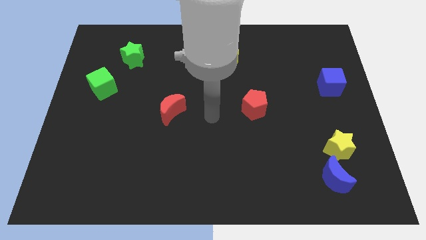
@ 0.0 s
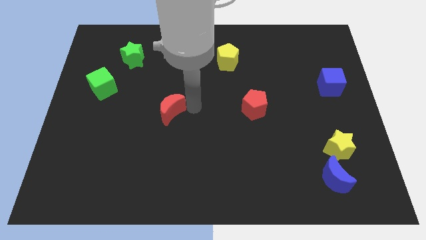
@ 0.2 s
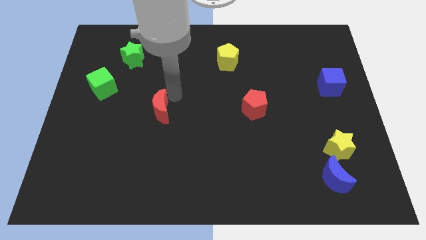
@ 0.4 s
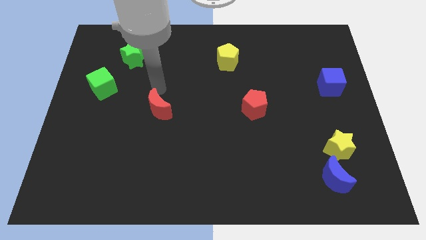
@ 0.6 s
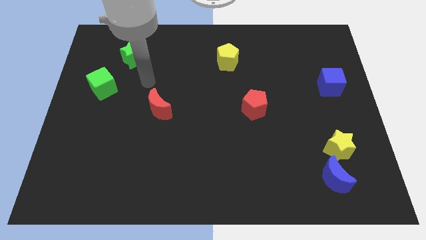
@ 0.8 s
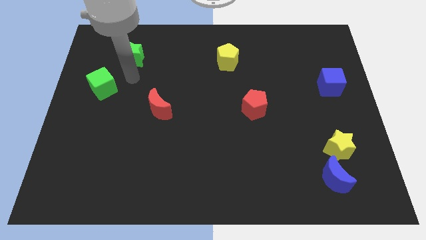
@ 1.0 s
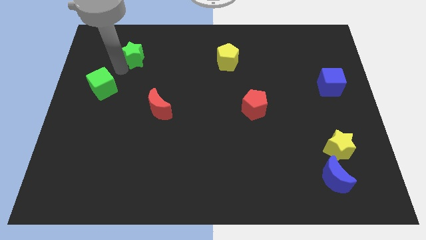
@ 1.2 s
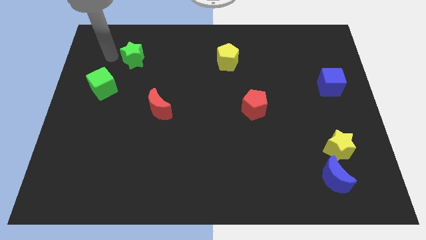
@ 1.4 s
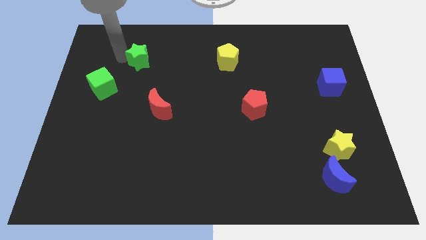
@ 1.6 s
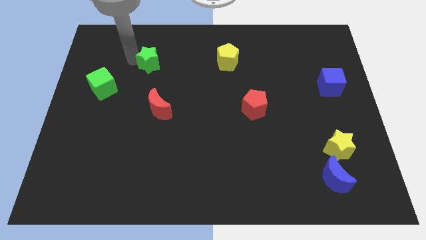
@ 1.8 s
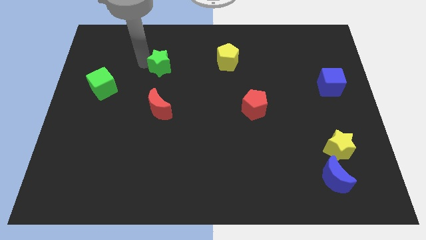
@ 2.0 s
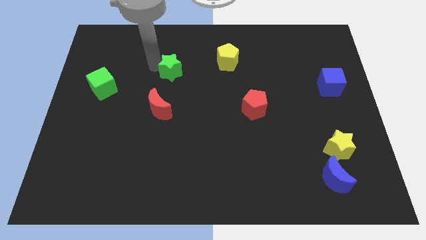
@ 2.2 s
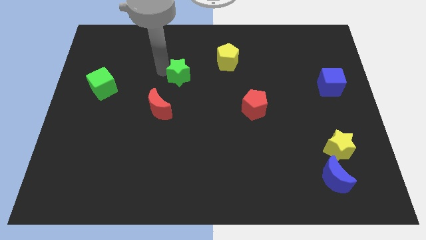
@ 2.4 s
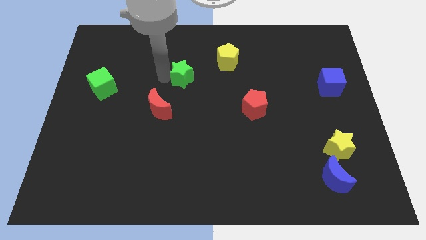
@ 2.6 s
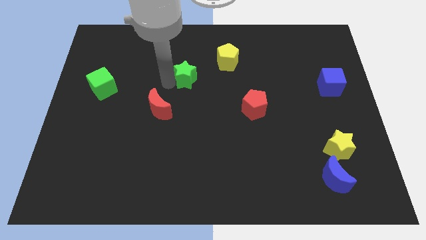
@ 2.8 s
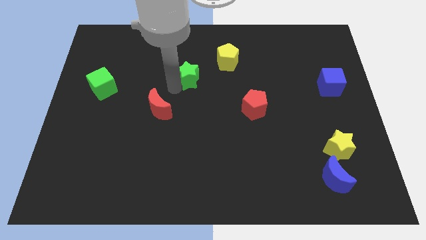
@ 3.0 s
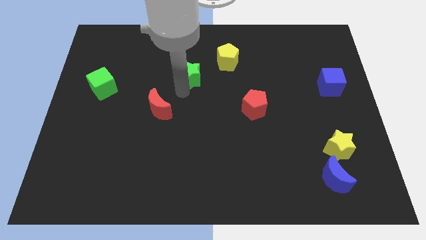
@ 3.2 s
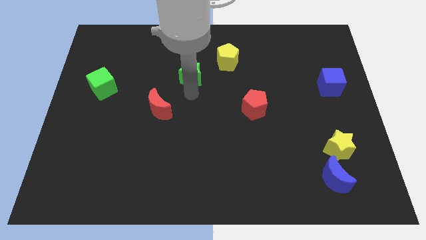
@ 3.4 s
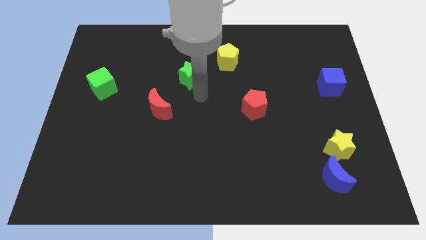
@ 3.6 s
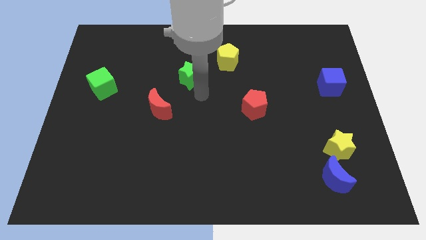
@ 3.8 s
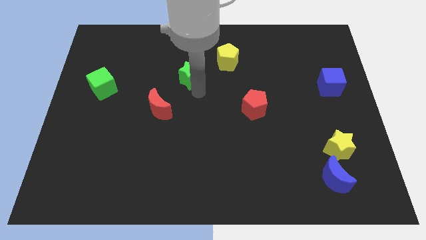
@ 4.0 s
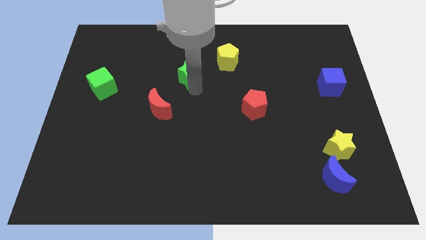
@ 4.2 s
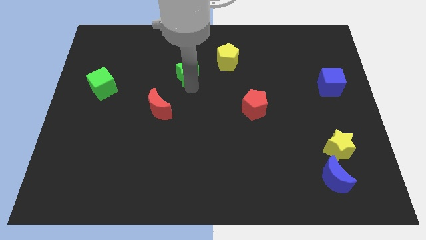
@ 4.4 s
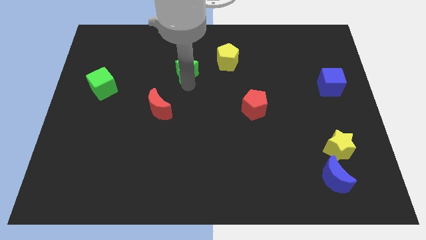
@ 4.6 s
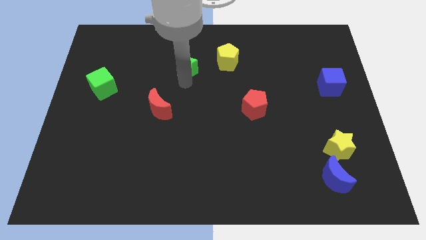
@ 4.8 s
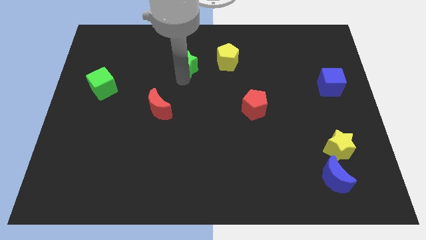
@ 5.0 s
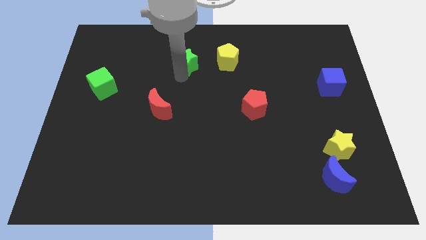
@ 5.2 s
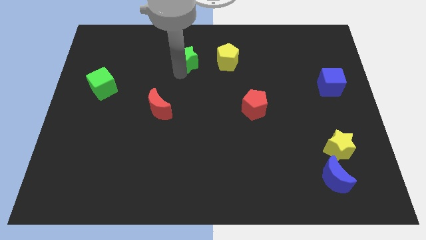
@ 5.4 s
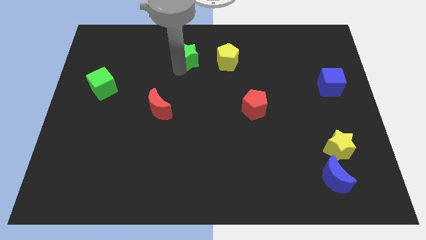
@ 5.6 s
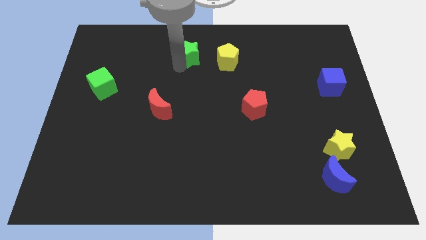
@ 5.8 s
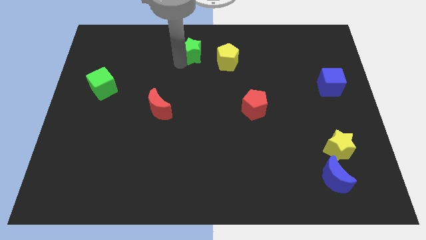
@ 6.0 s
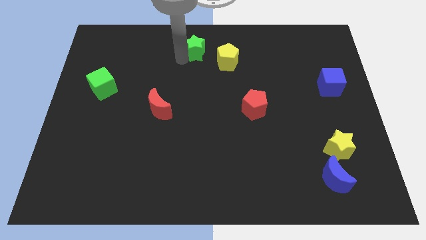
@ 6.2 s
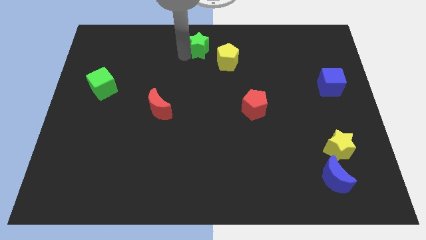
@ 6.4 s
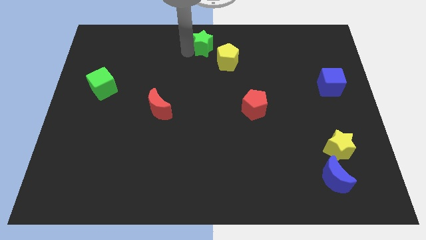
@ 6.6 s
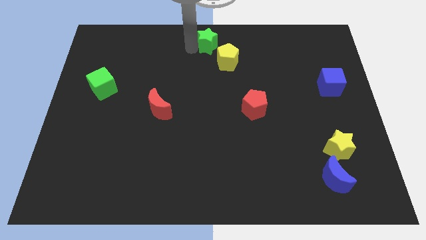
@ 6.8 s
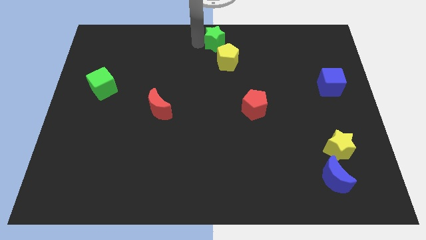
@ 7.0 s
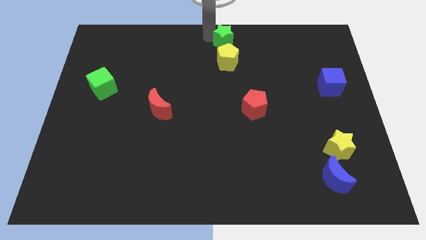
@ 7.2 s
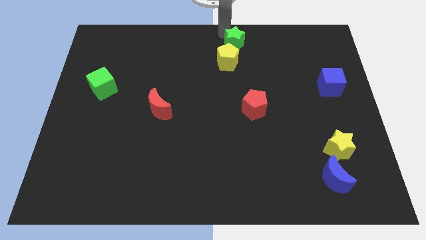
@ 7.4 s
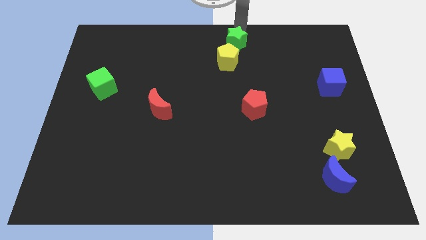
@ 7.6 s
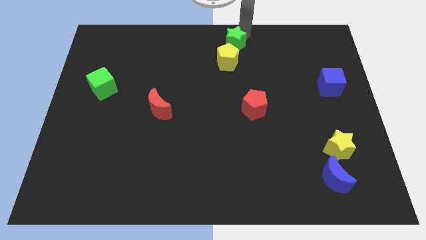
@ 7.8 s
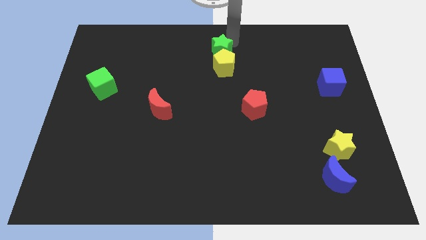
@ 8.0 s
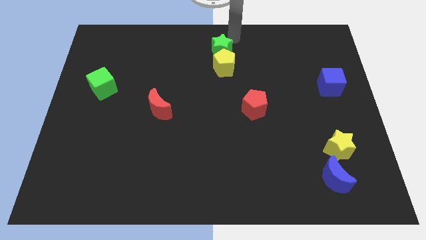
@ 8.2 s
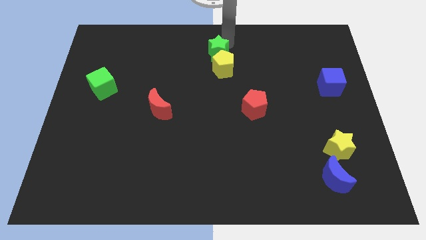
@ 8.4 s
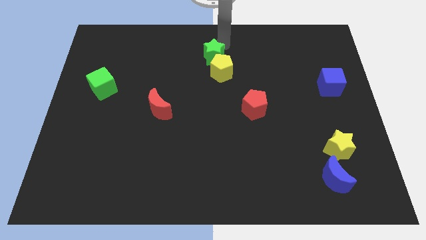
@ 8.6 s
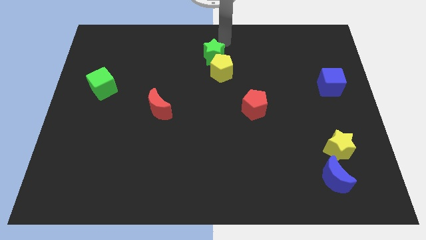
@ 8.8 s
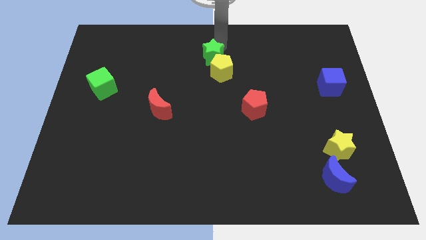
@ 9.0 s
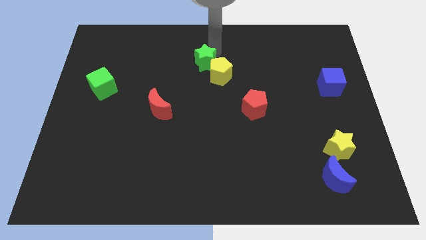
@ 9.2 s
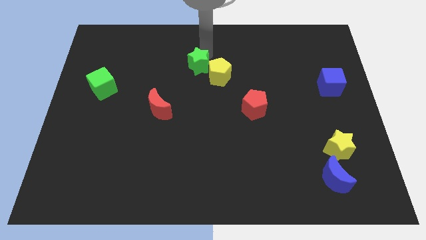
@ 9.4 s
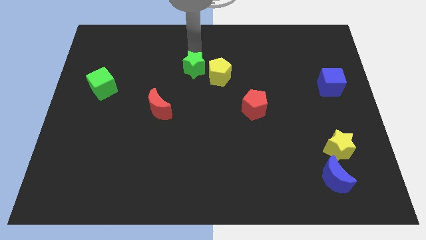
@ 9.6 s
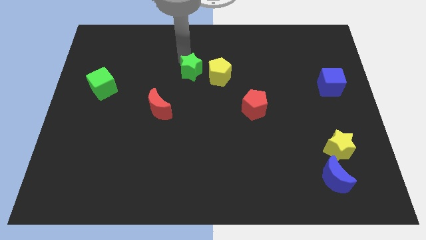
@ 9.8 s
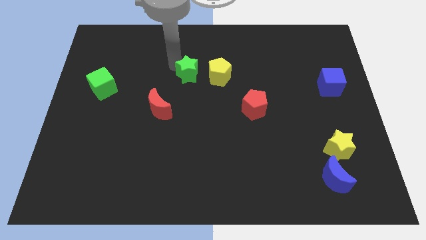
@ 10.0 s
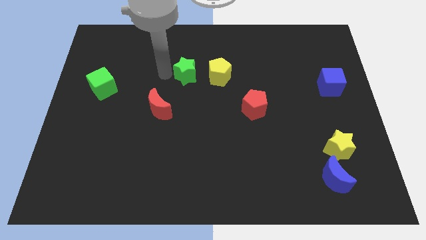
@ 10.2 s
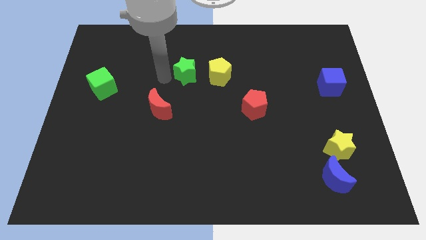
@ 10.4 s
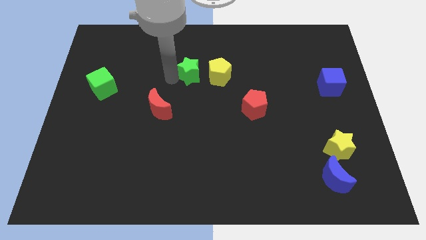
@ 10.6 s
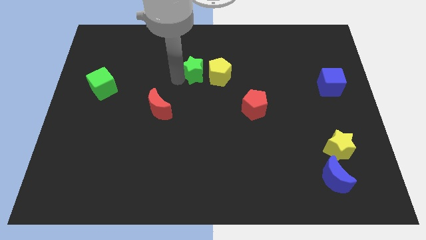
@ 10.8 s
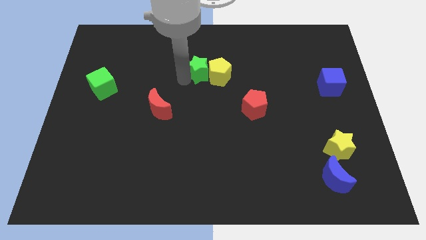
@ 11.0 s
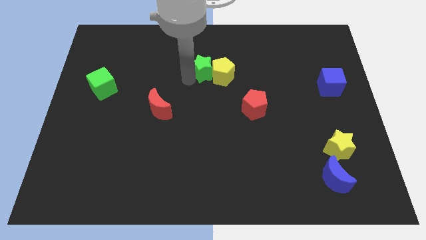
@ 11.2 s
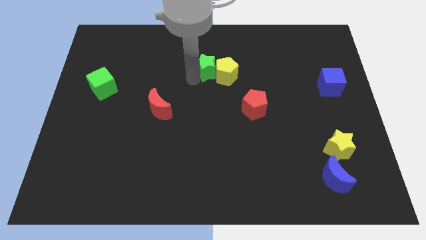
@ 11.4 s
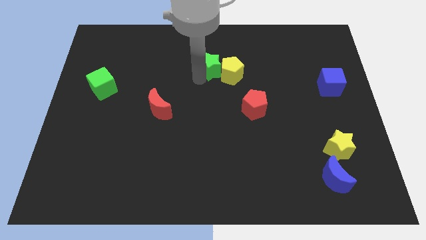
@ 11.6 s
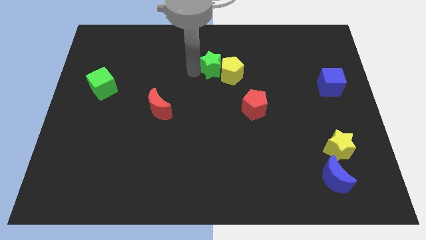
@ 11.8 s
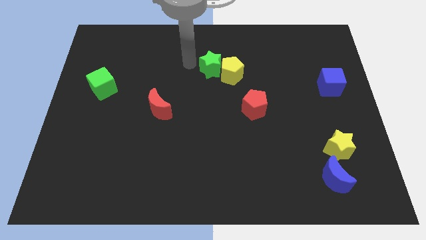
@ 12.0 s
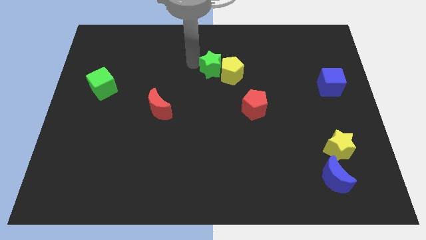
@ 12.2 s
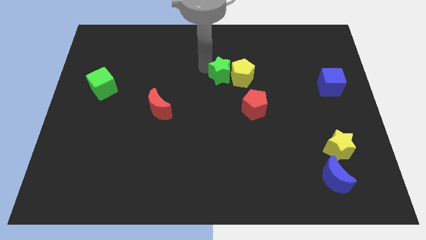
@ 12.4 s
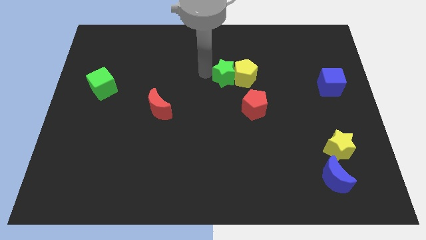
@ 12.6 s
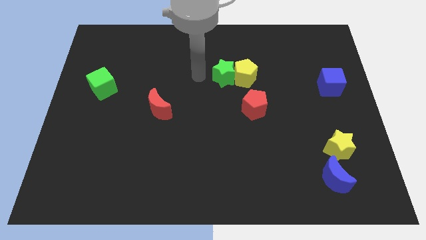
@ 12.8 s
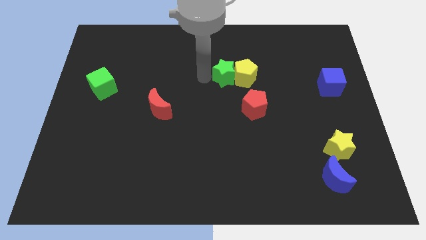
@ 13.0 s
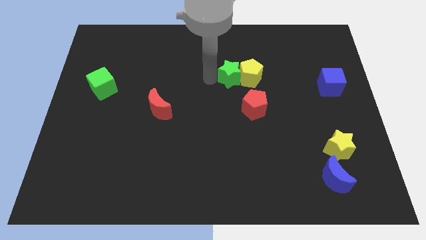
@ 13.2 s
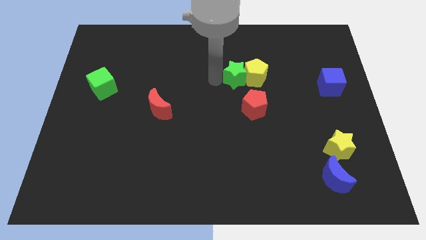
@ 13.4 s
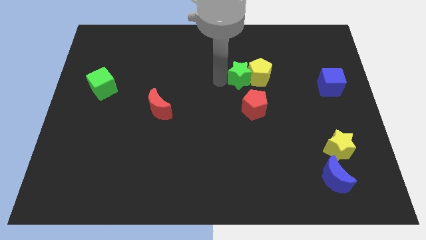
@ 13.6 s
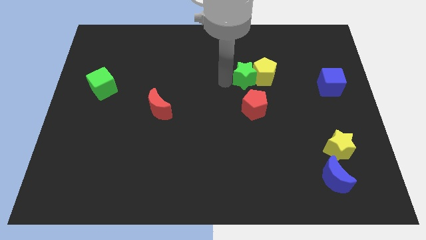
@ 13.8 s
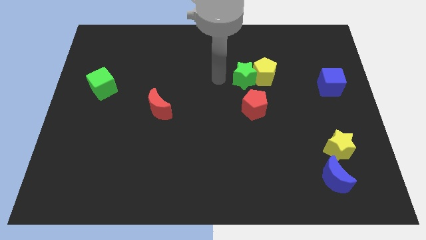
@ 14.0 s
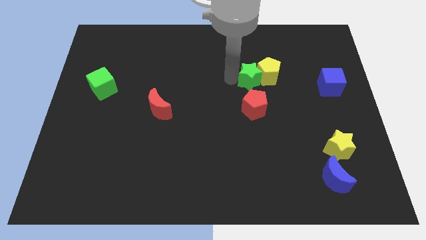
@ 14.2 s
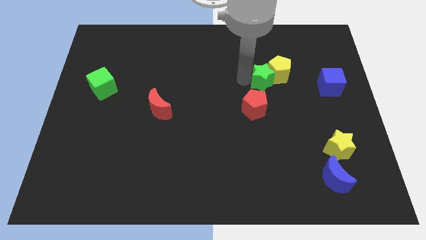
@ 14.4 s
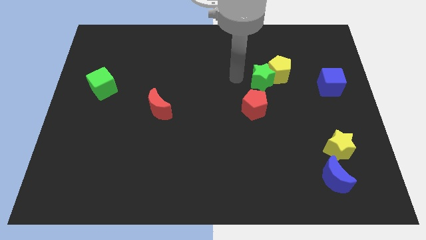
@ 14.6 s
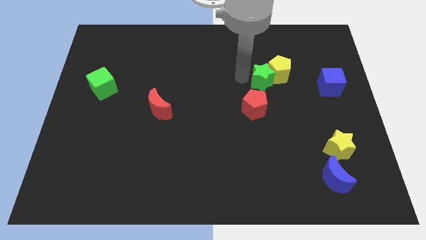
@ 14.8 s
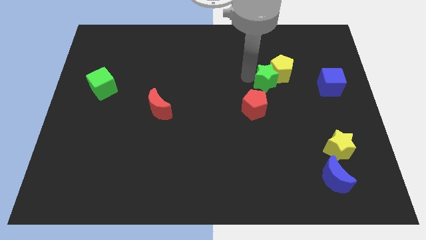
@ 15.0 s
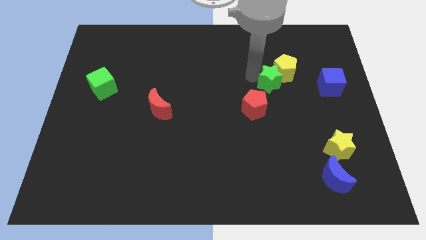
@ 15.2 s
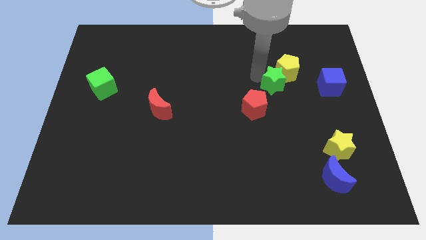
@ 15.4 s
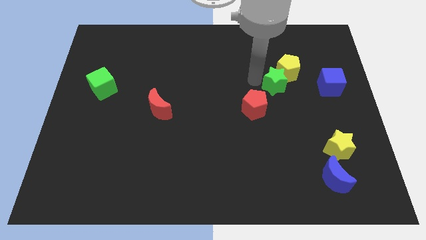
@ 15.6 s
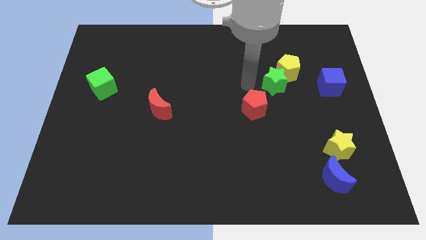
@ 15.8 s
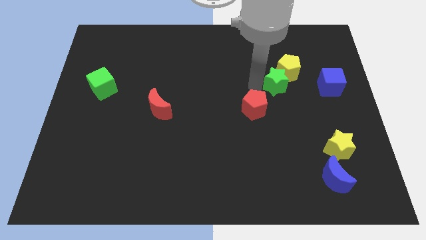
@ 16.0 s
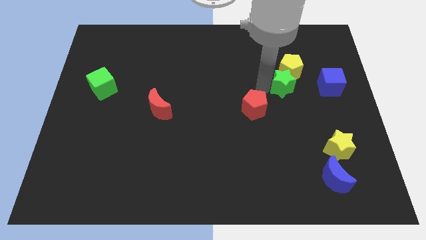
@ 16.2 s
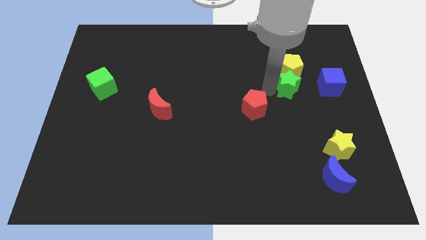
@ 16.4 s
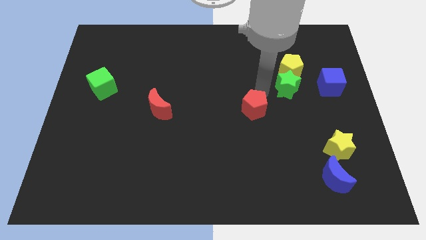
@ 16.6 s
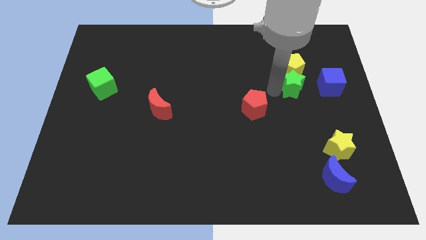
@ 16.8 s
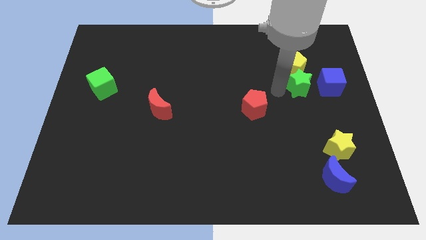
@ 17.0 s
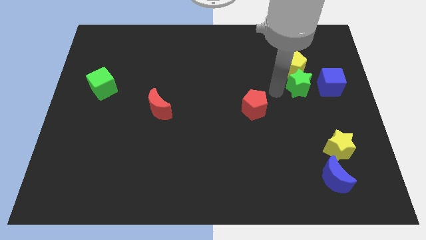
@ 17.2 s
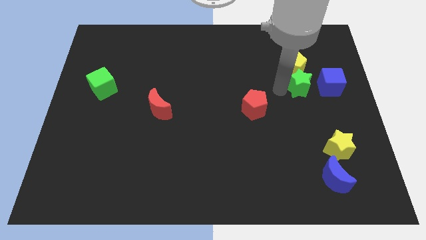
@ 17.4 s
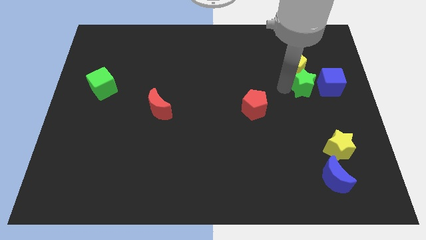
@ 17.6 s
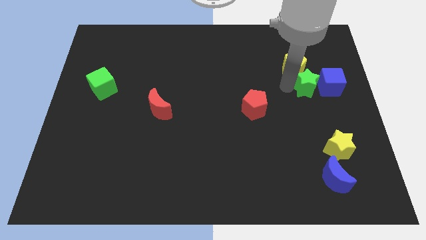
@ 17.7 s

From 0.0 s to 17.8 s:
slide the green star towards the blue cube
